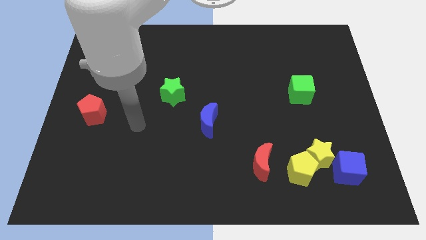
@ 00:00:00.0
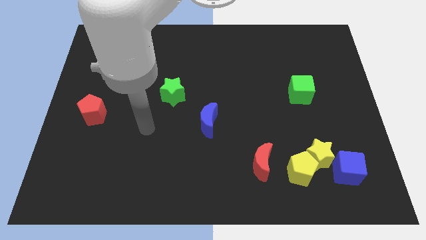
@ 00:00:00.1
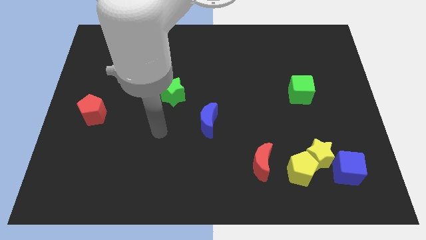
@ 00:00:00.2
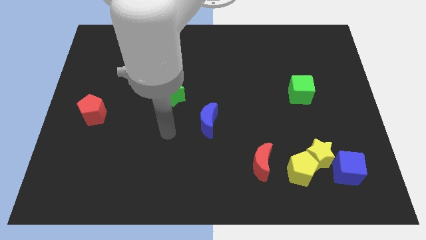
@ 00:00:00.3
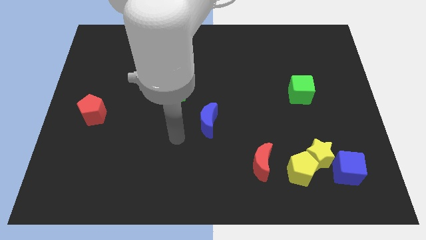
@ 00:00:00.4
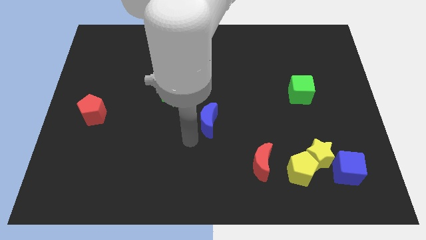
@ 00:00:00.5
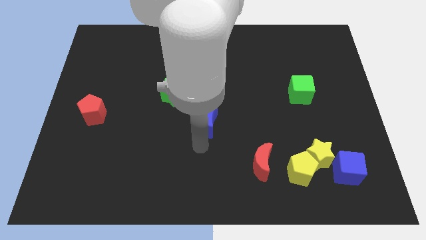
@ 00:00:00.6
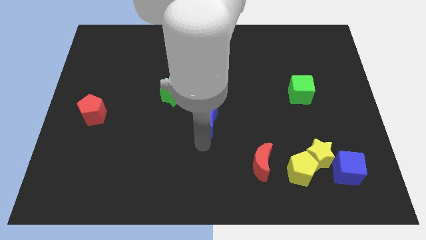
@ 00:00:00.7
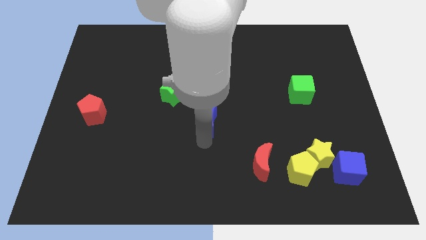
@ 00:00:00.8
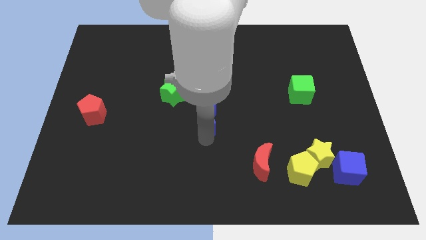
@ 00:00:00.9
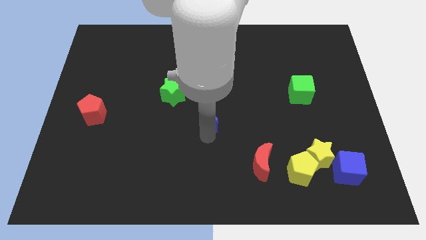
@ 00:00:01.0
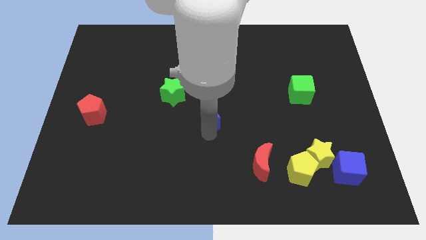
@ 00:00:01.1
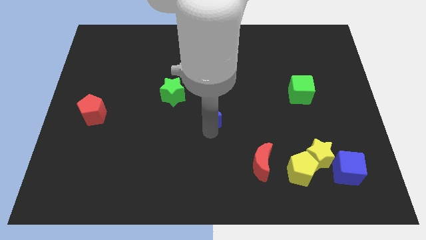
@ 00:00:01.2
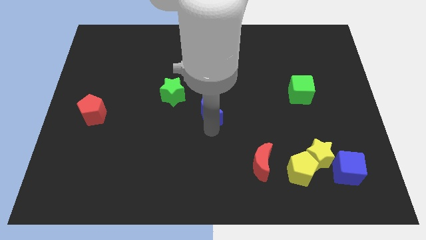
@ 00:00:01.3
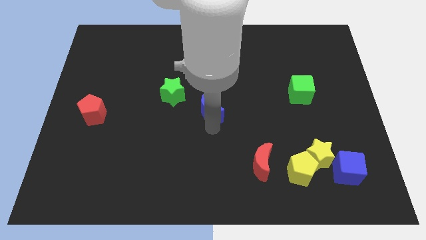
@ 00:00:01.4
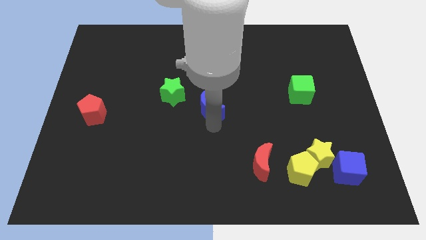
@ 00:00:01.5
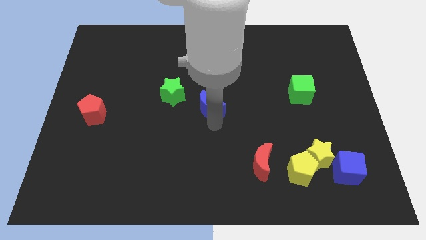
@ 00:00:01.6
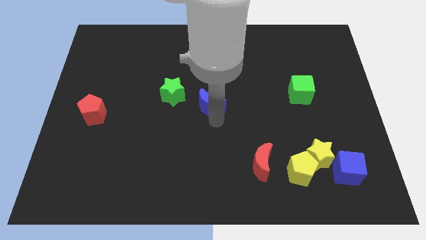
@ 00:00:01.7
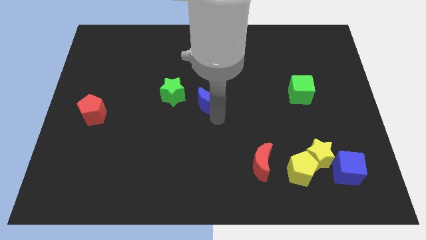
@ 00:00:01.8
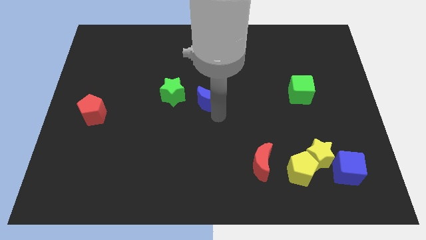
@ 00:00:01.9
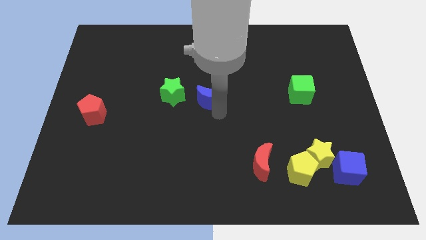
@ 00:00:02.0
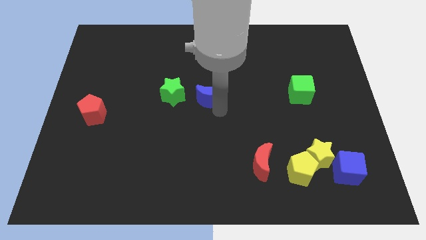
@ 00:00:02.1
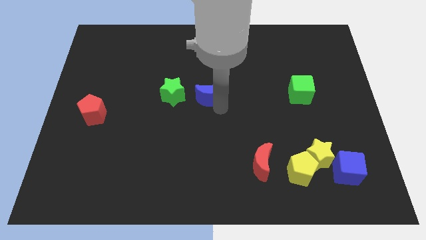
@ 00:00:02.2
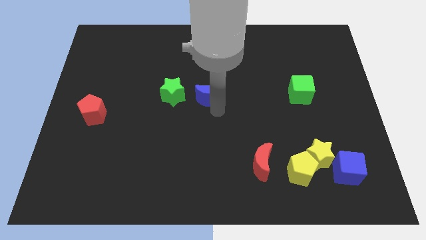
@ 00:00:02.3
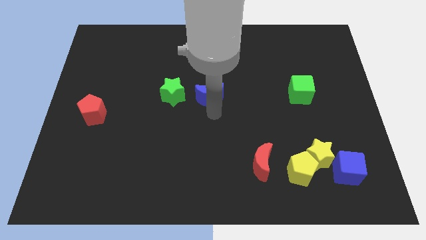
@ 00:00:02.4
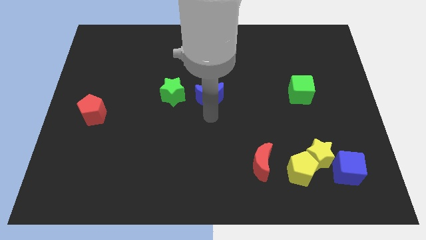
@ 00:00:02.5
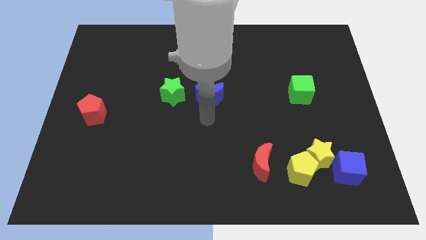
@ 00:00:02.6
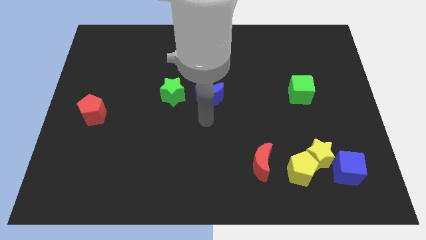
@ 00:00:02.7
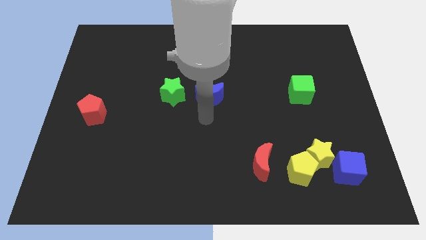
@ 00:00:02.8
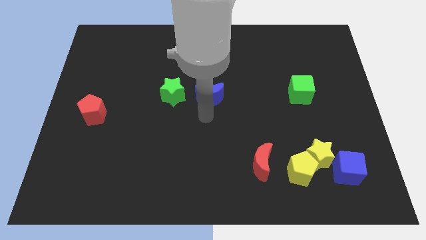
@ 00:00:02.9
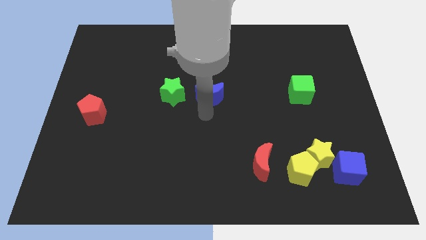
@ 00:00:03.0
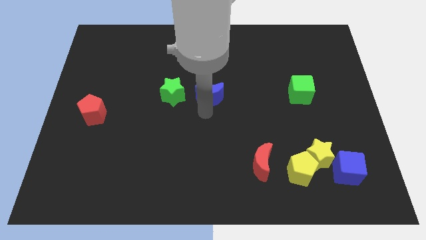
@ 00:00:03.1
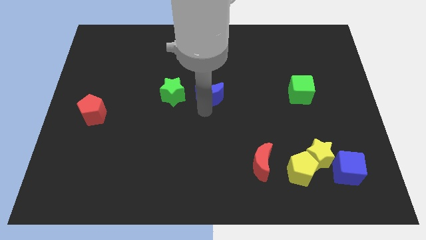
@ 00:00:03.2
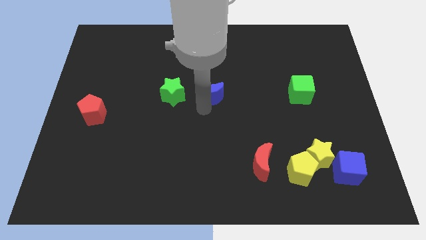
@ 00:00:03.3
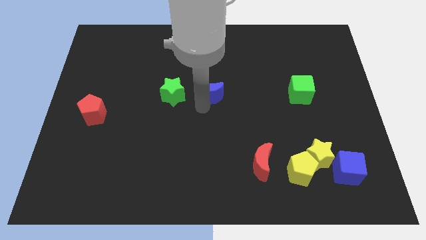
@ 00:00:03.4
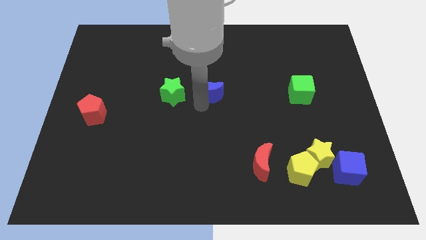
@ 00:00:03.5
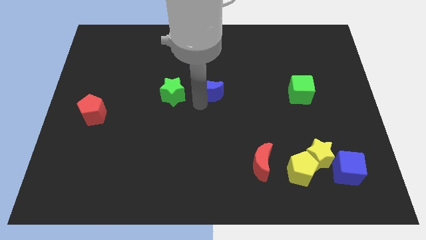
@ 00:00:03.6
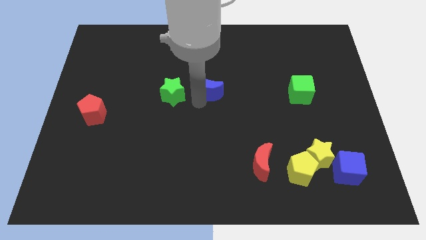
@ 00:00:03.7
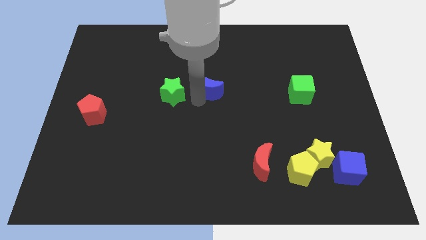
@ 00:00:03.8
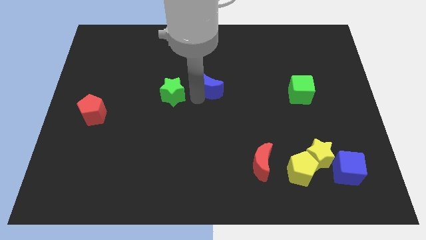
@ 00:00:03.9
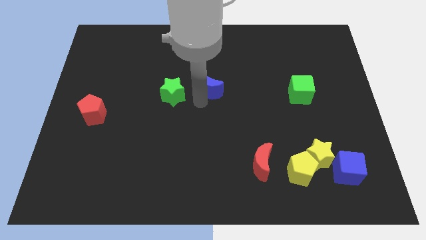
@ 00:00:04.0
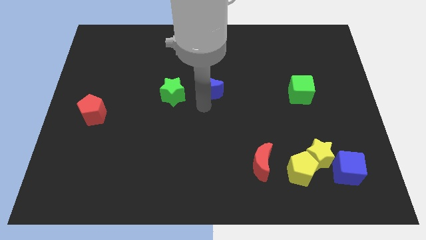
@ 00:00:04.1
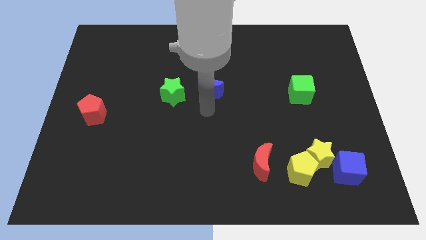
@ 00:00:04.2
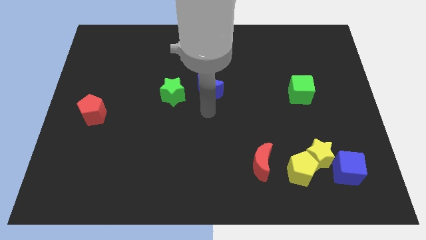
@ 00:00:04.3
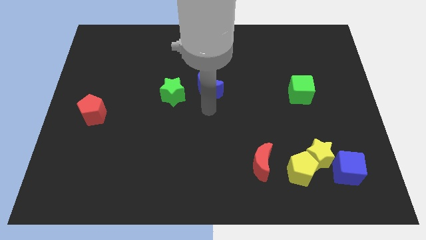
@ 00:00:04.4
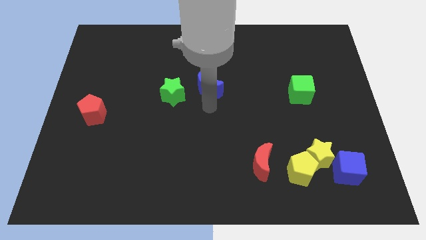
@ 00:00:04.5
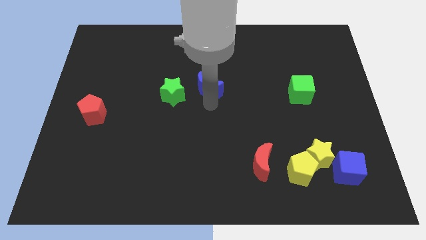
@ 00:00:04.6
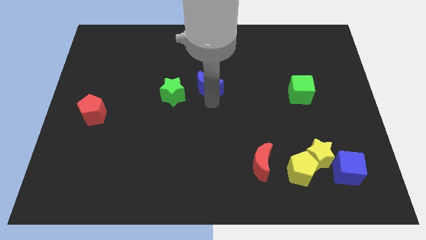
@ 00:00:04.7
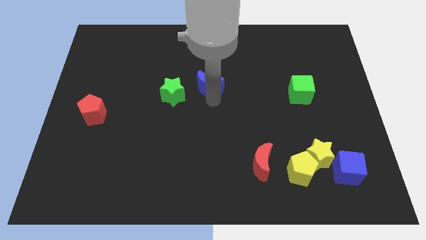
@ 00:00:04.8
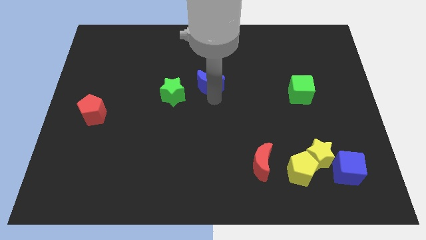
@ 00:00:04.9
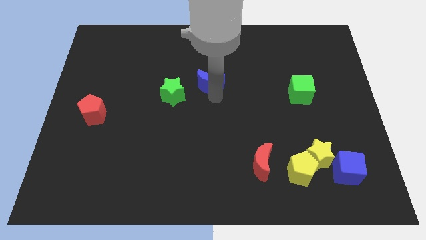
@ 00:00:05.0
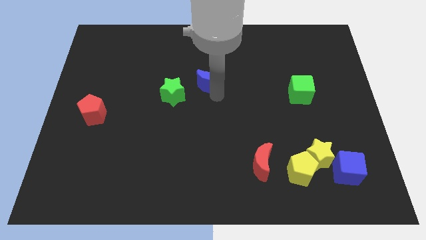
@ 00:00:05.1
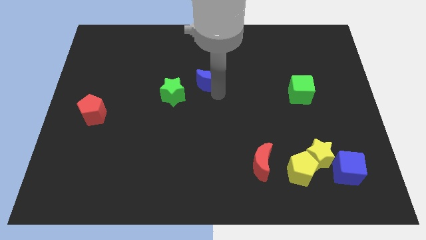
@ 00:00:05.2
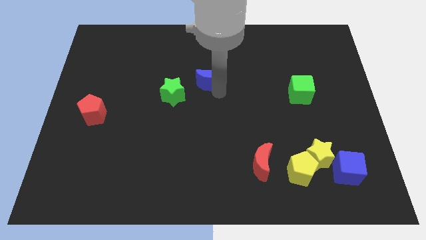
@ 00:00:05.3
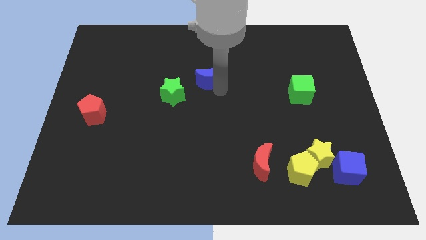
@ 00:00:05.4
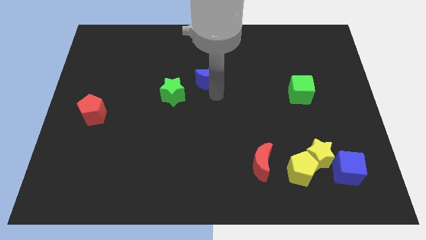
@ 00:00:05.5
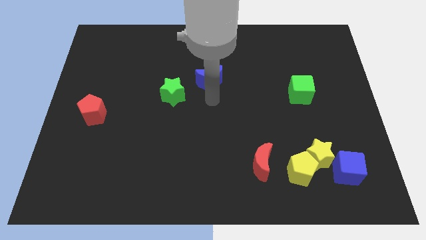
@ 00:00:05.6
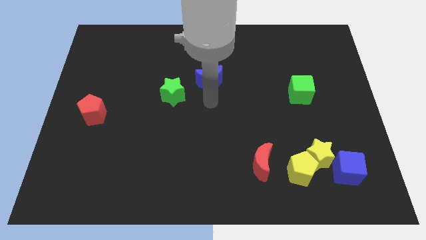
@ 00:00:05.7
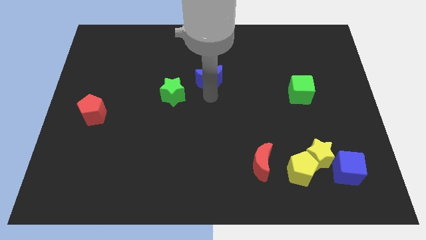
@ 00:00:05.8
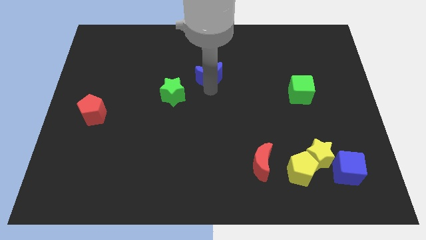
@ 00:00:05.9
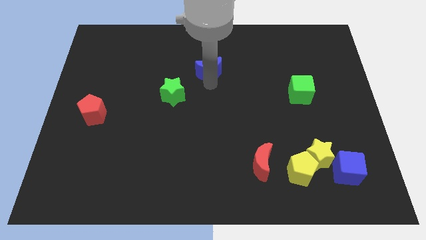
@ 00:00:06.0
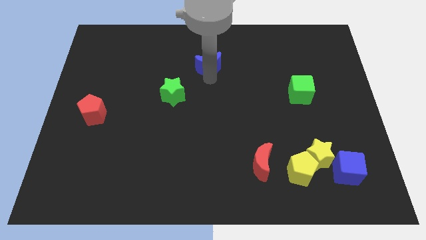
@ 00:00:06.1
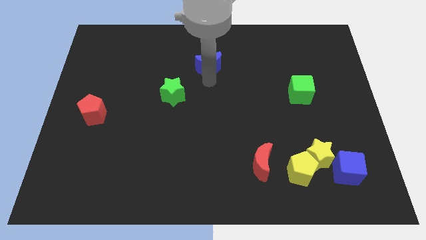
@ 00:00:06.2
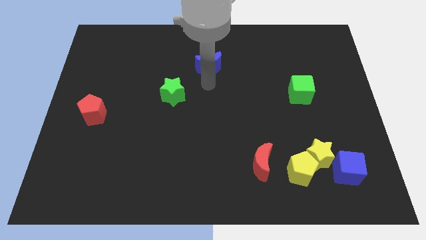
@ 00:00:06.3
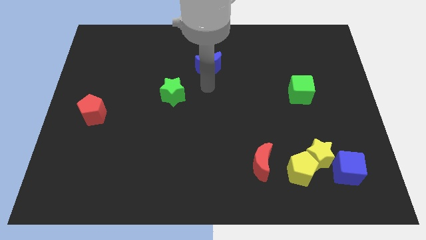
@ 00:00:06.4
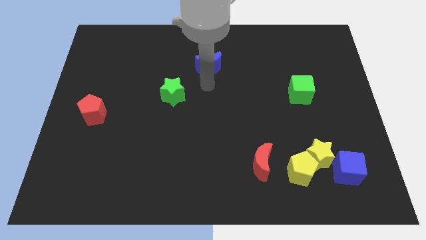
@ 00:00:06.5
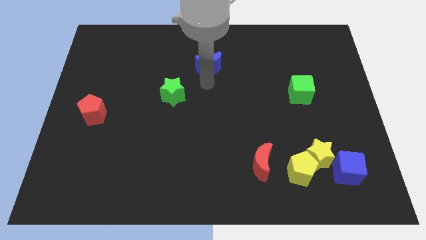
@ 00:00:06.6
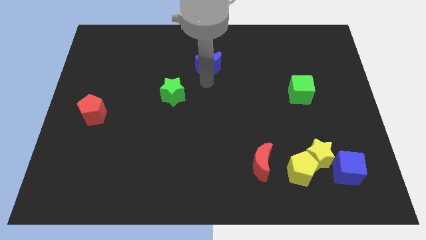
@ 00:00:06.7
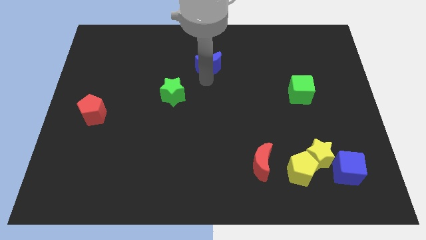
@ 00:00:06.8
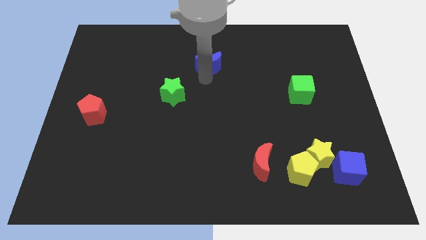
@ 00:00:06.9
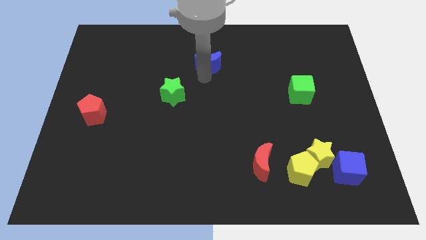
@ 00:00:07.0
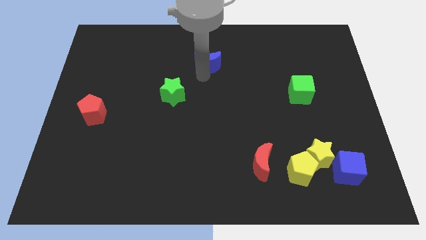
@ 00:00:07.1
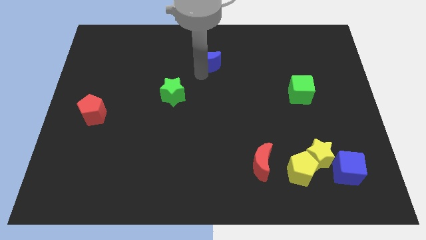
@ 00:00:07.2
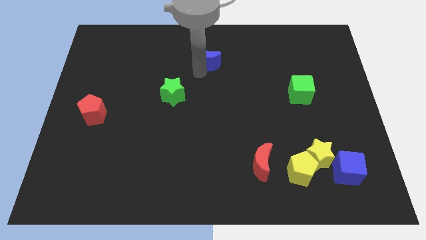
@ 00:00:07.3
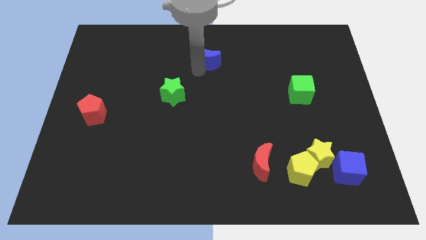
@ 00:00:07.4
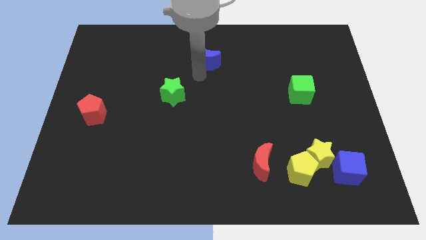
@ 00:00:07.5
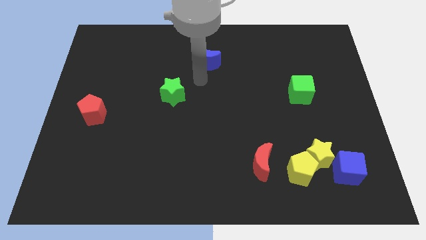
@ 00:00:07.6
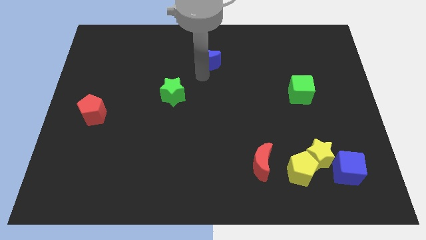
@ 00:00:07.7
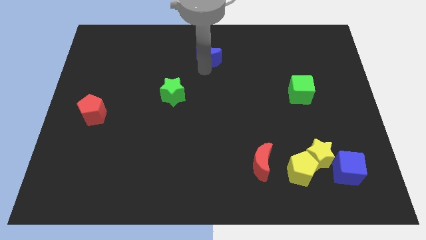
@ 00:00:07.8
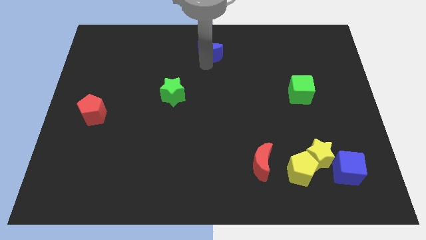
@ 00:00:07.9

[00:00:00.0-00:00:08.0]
push the blue moon to the towards your base
